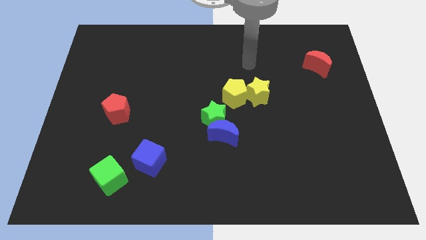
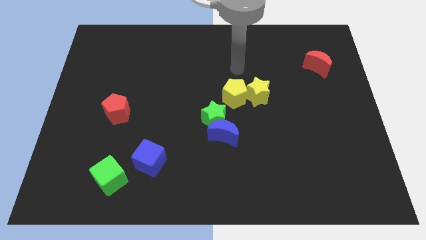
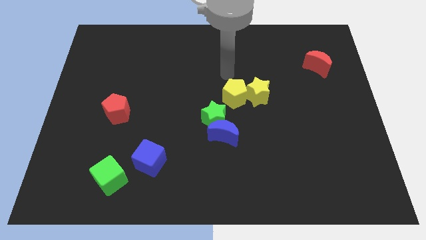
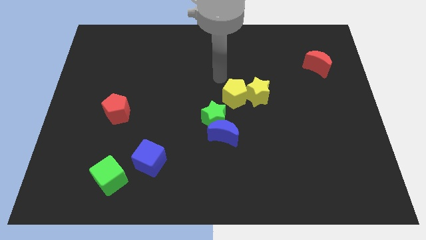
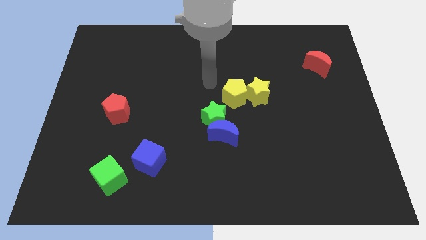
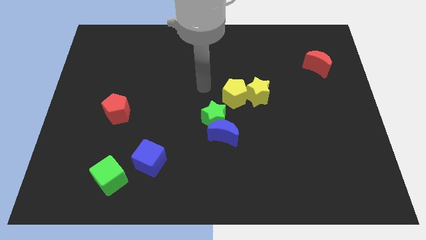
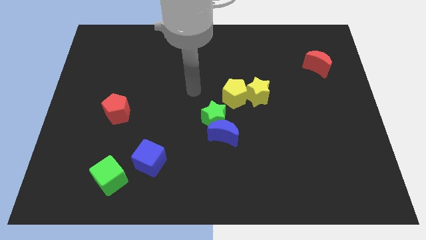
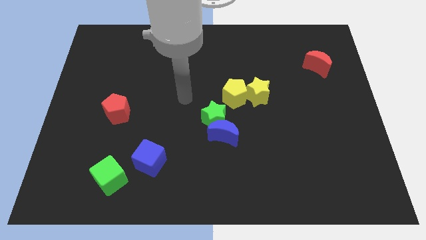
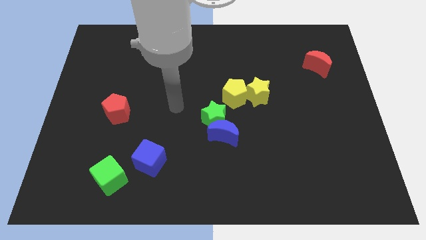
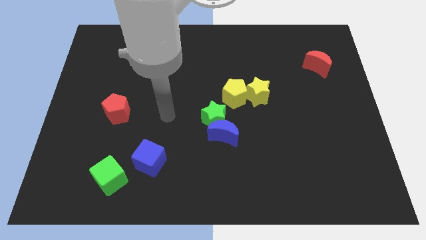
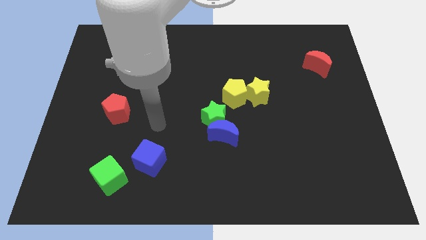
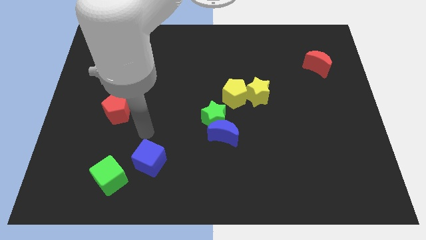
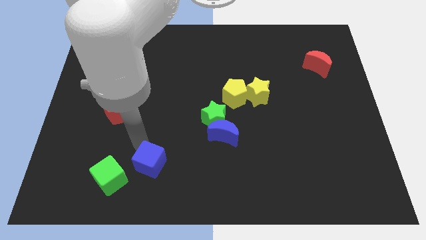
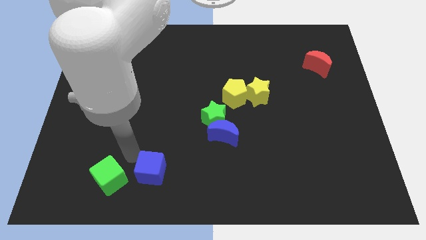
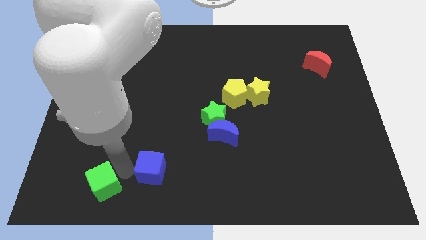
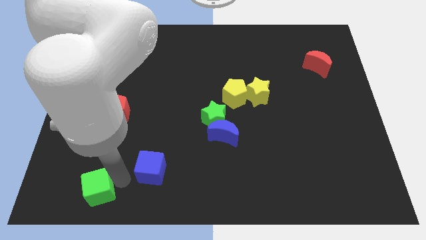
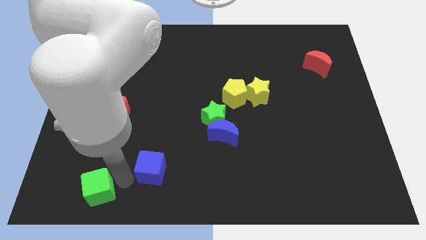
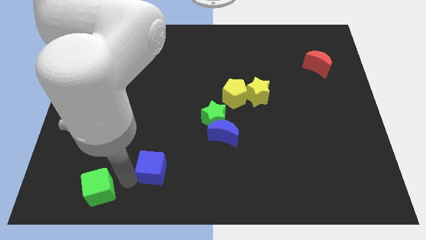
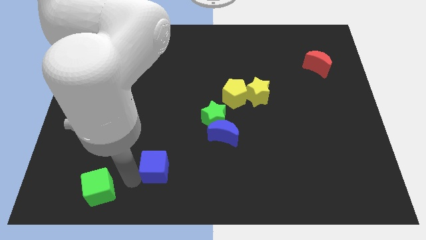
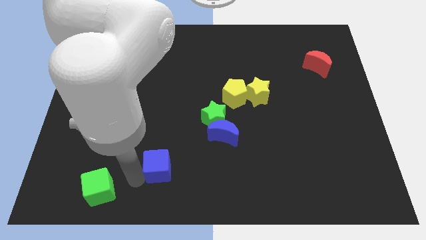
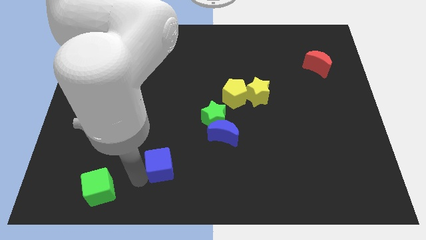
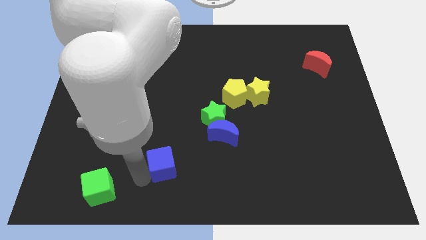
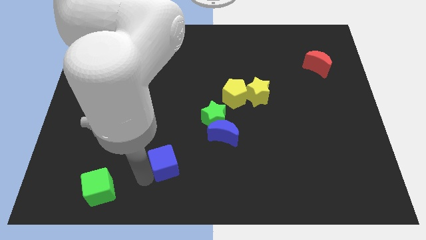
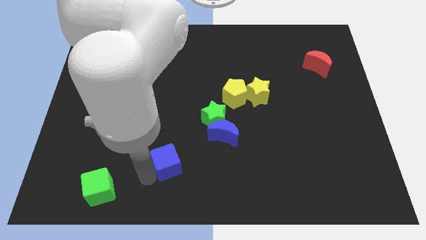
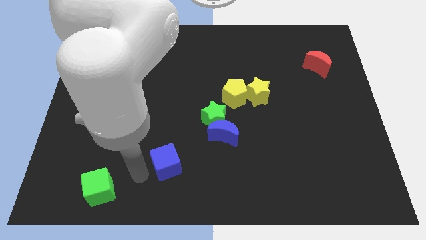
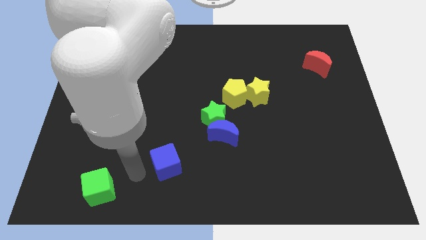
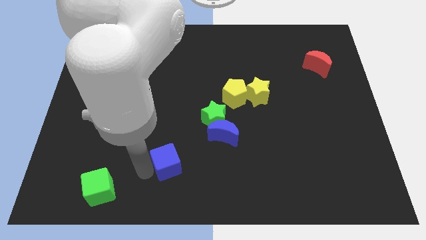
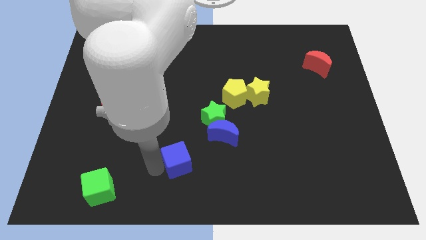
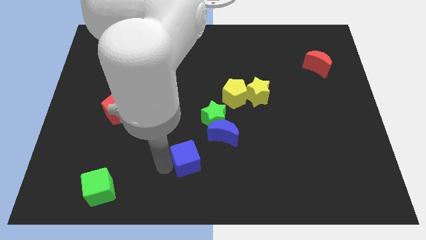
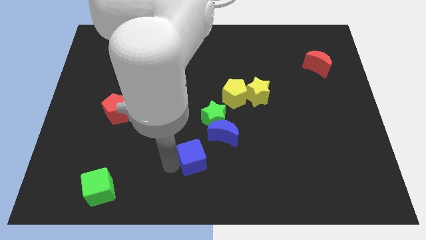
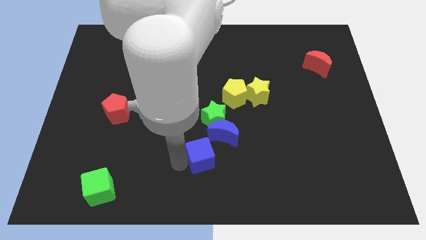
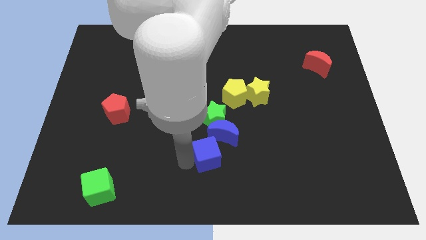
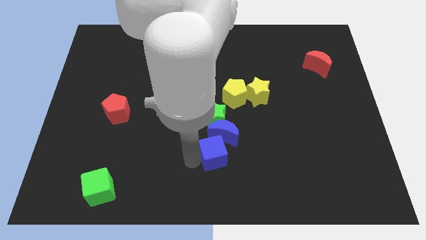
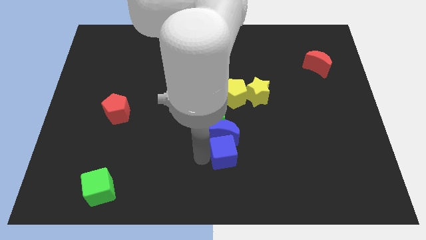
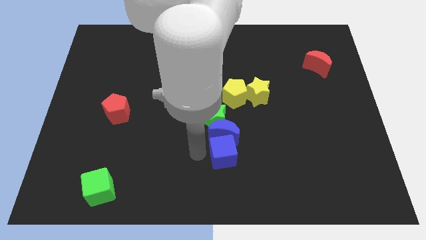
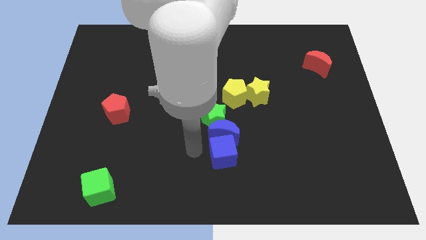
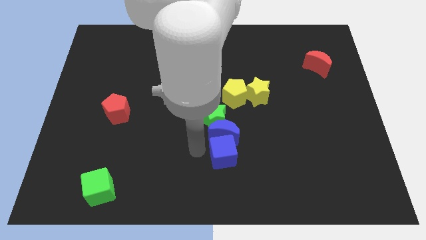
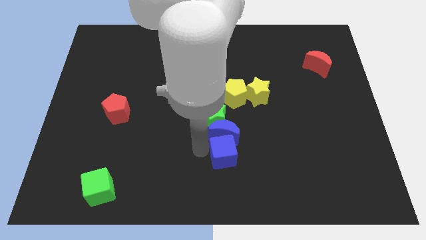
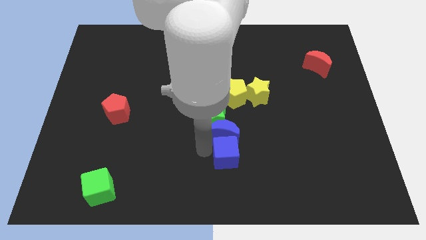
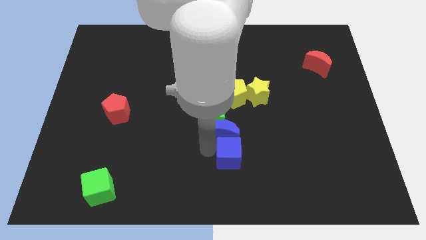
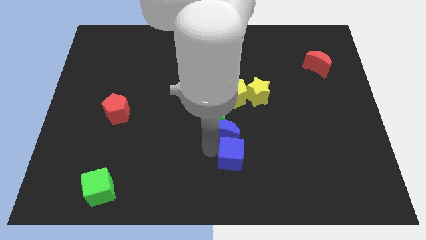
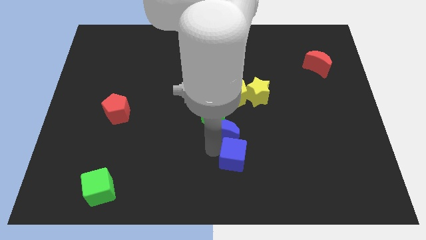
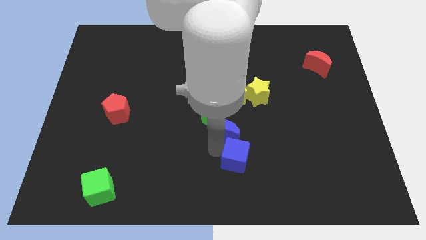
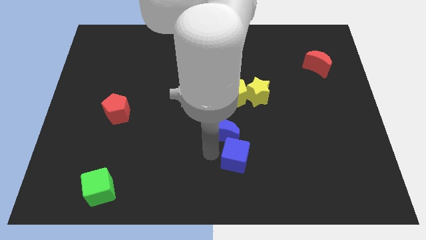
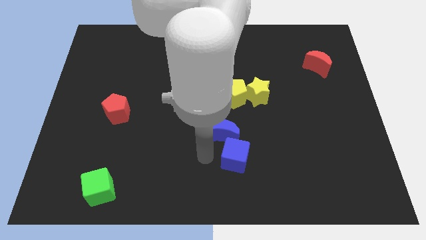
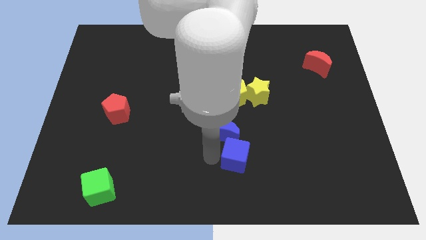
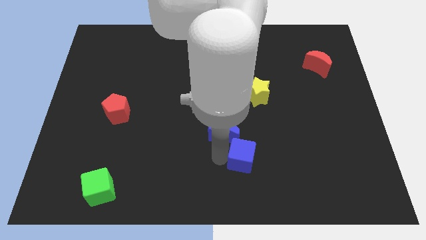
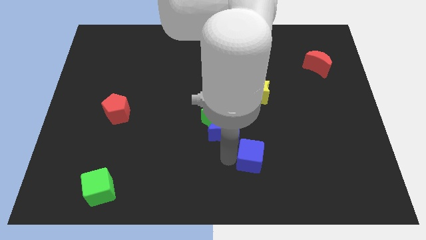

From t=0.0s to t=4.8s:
push the blue cube right

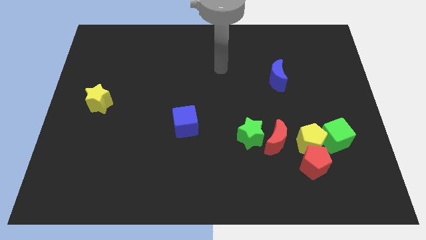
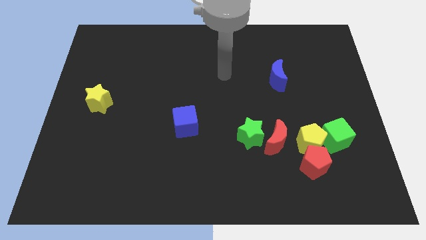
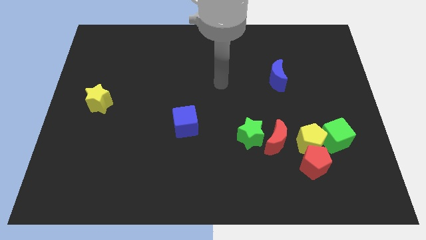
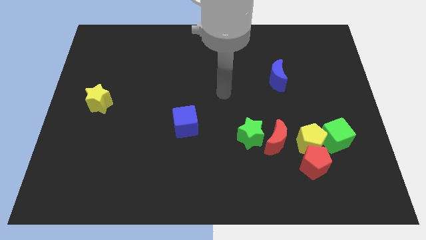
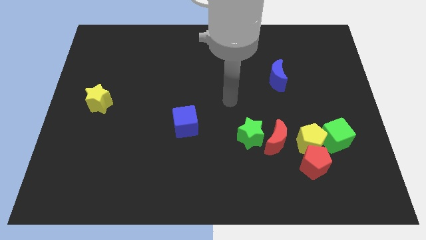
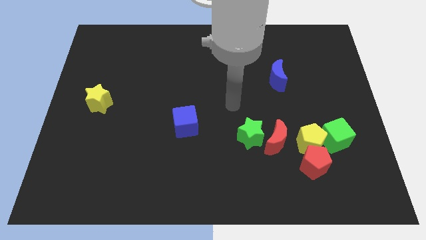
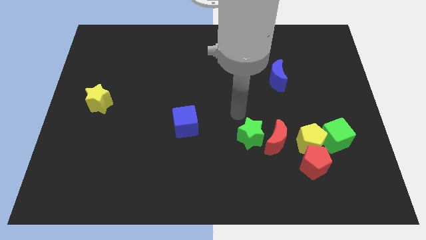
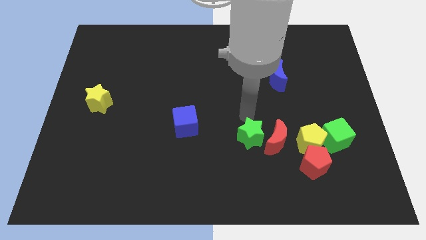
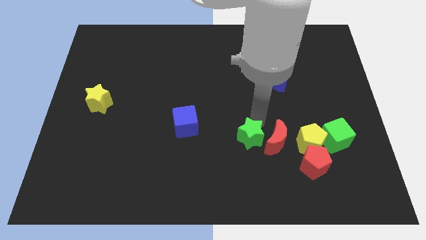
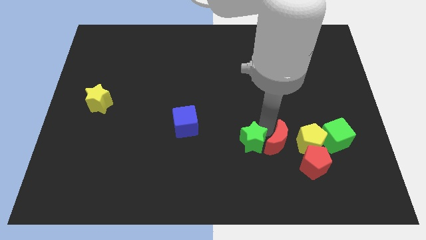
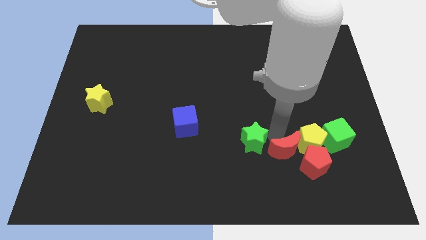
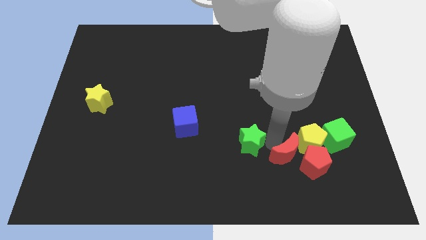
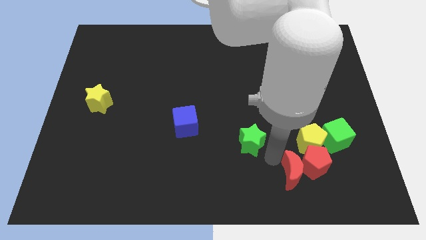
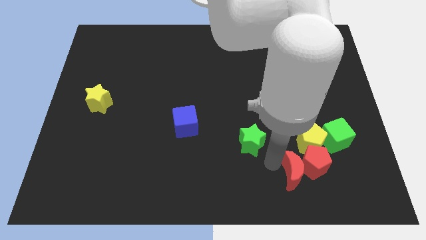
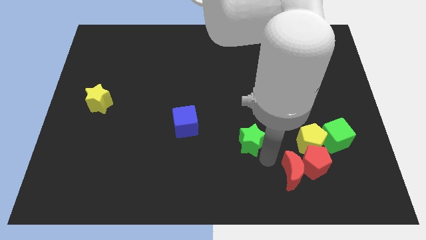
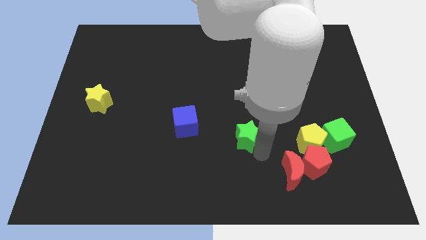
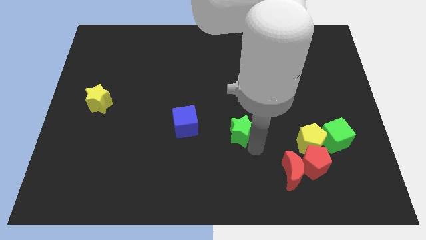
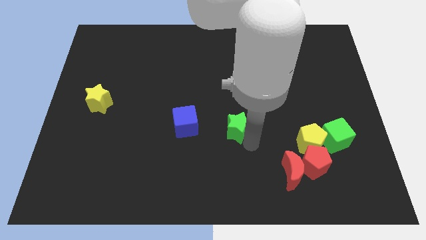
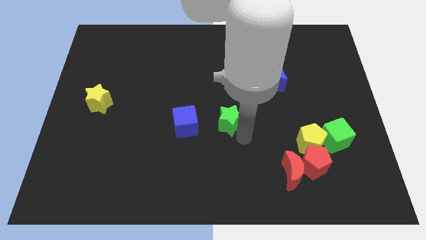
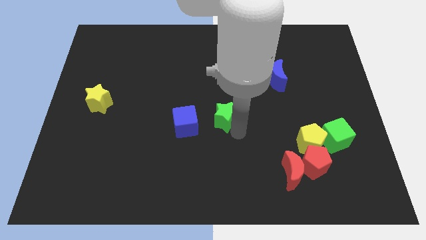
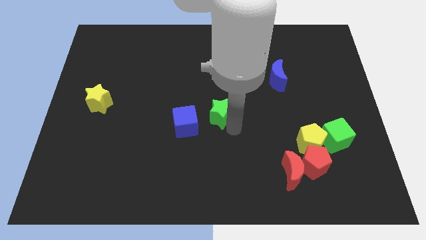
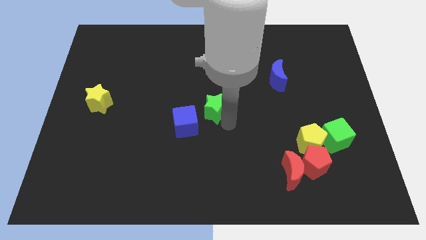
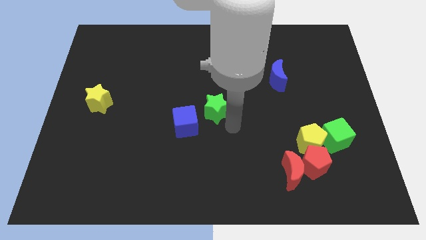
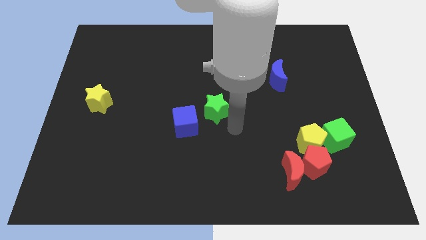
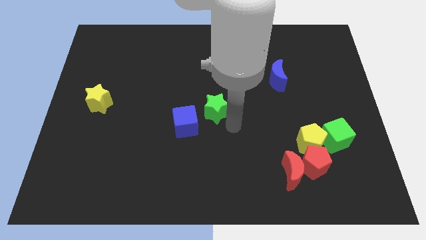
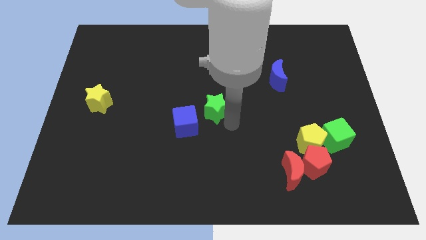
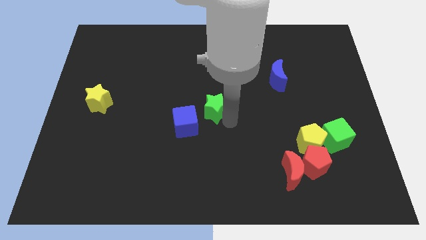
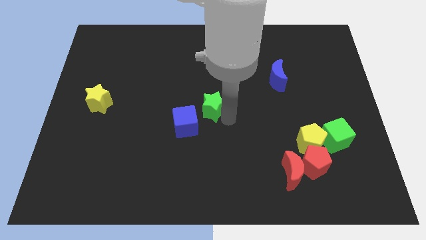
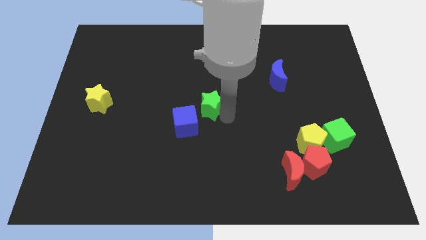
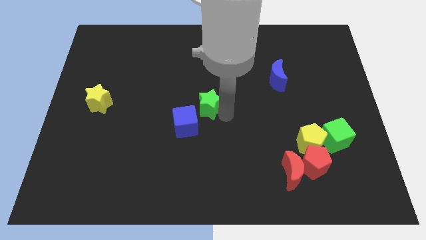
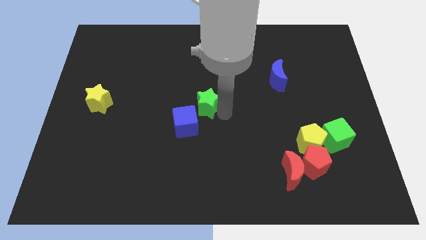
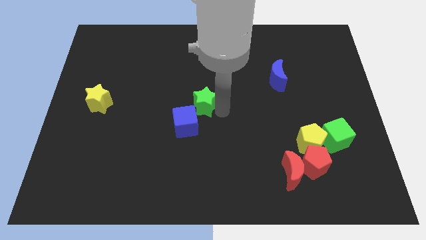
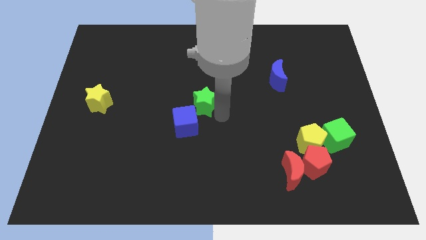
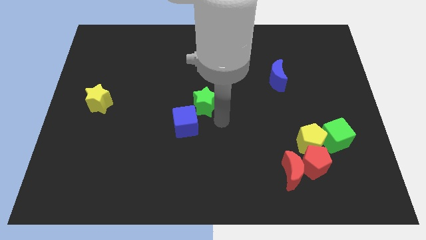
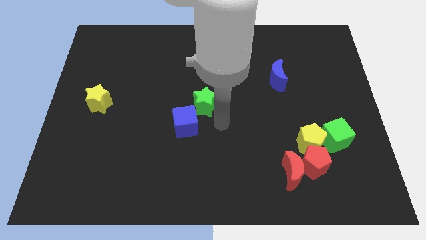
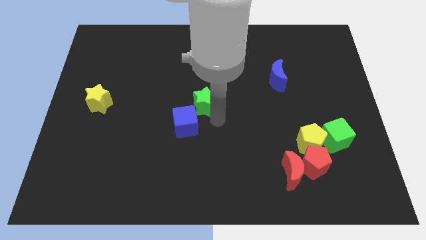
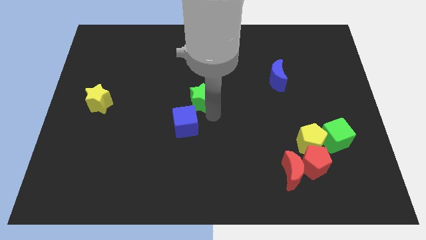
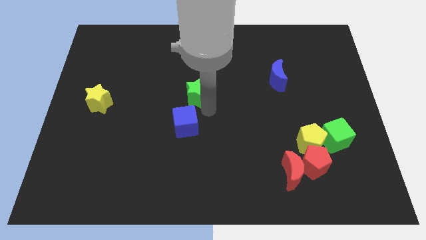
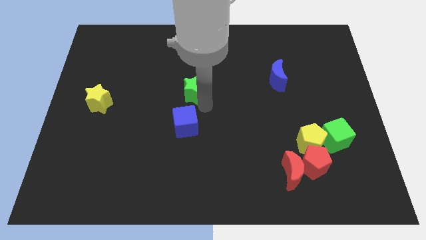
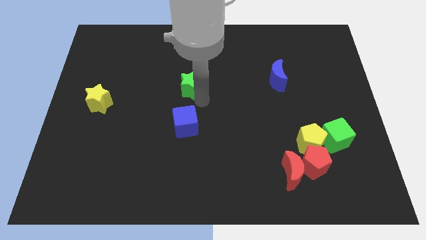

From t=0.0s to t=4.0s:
move the green star up and left
